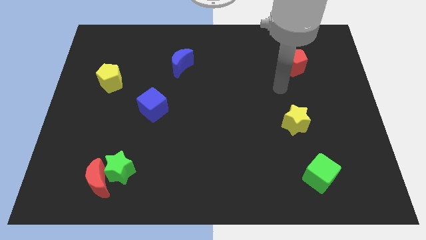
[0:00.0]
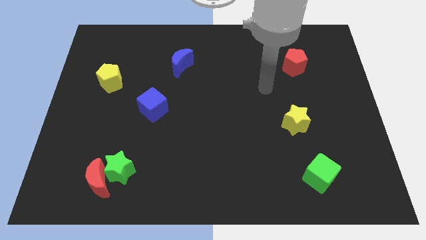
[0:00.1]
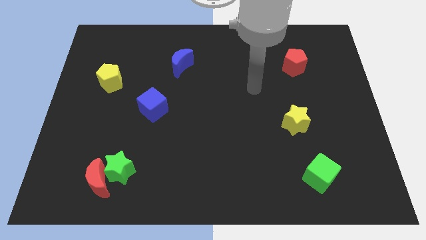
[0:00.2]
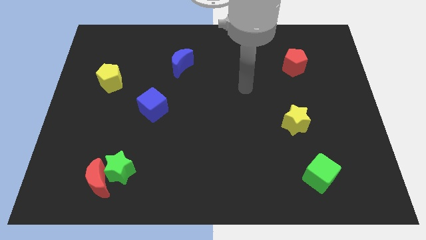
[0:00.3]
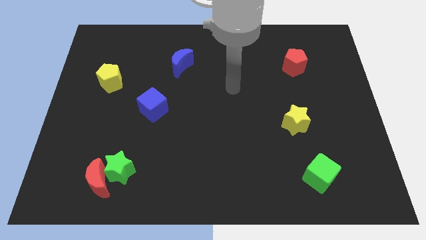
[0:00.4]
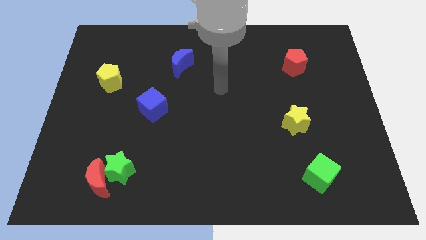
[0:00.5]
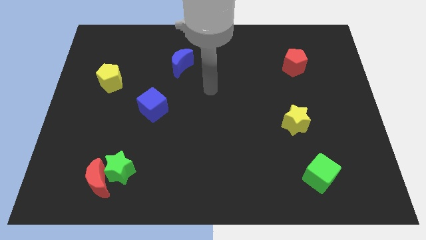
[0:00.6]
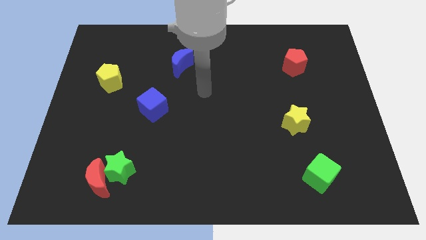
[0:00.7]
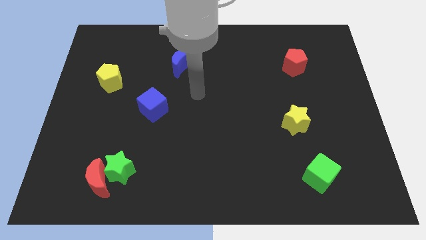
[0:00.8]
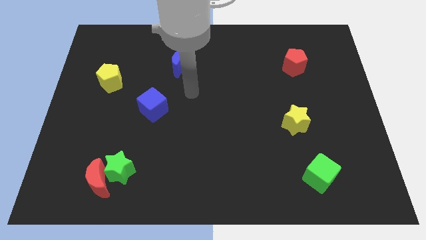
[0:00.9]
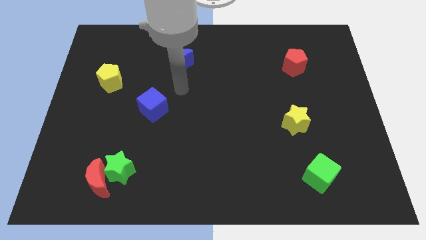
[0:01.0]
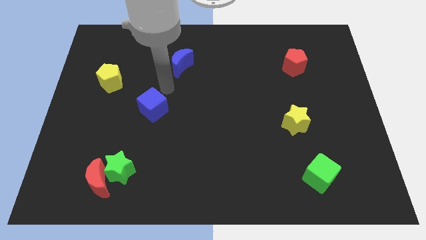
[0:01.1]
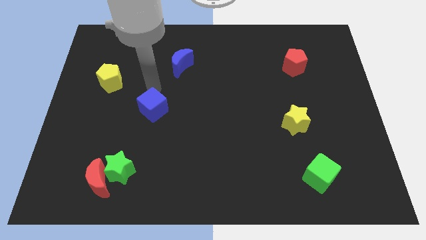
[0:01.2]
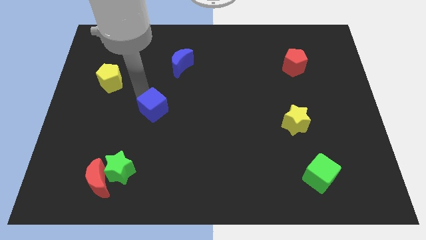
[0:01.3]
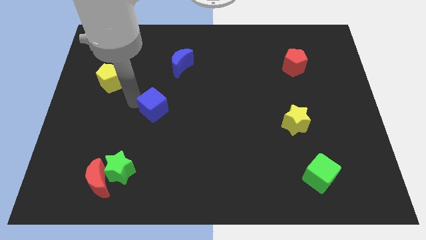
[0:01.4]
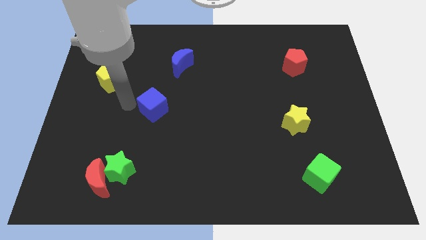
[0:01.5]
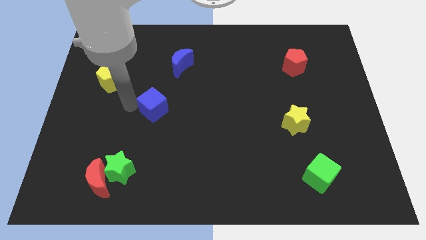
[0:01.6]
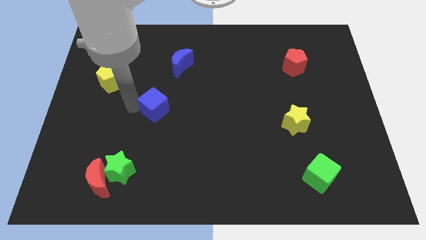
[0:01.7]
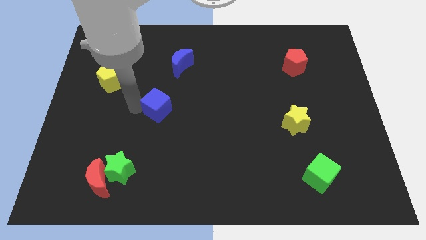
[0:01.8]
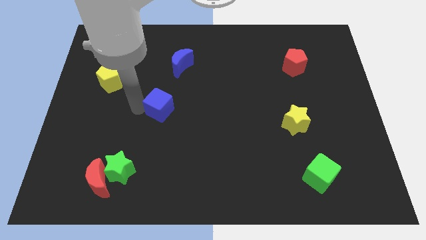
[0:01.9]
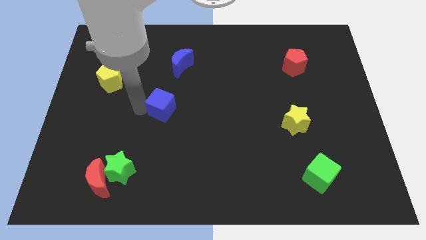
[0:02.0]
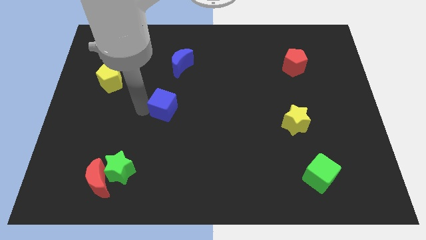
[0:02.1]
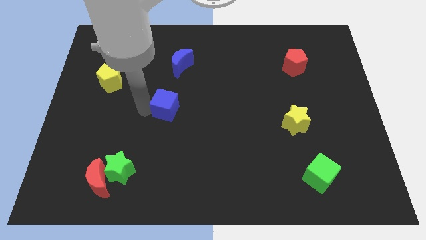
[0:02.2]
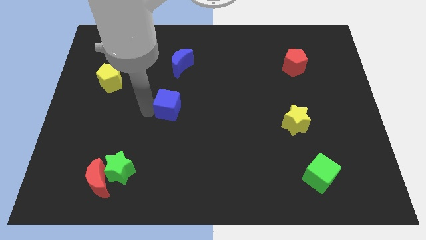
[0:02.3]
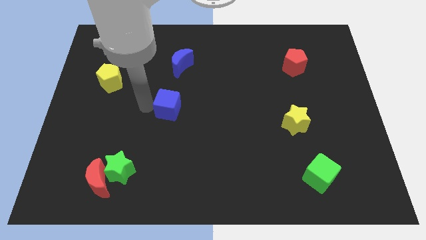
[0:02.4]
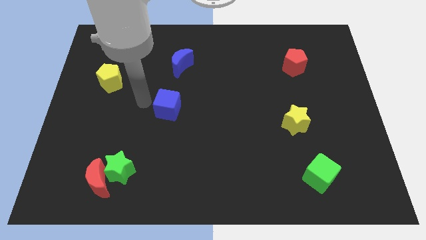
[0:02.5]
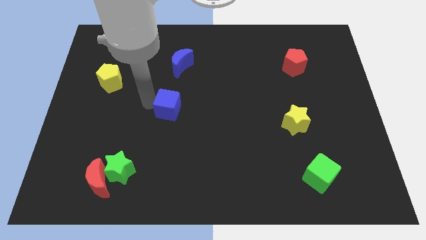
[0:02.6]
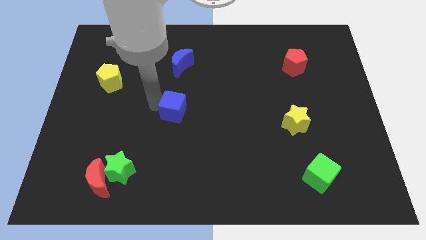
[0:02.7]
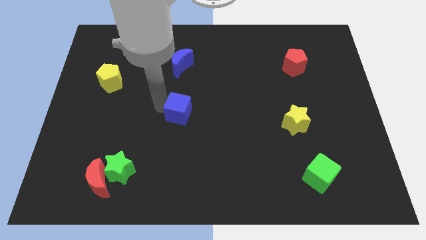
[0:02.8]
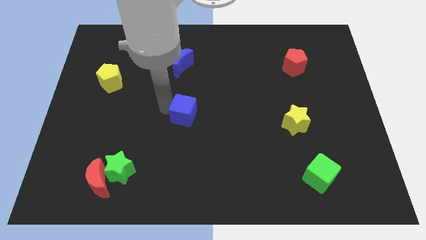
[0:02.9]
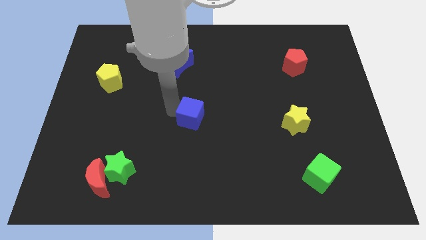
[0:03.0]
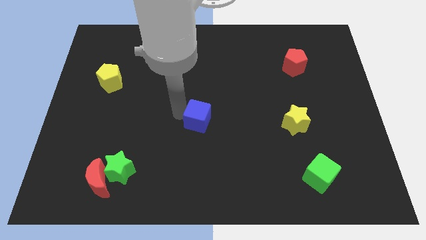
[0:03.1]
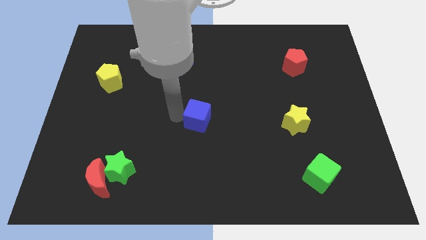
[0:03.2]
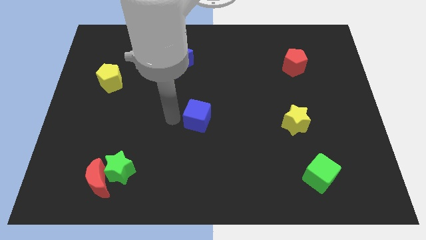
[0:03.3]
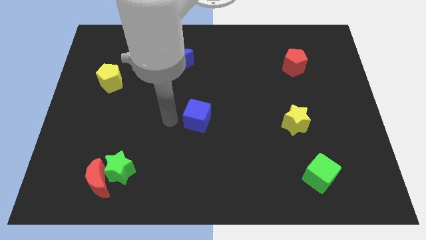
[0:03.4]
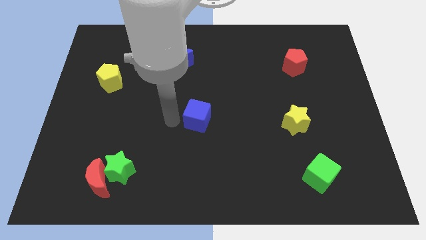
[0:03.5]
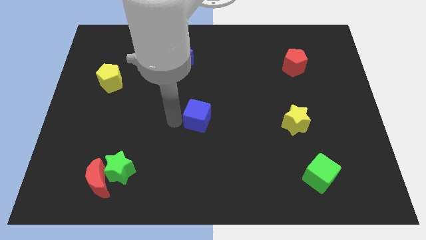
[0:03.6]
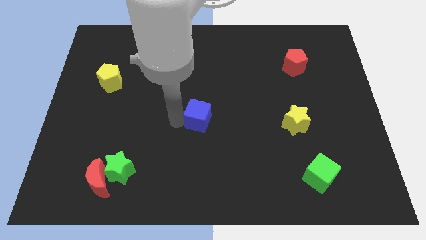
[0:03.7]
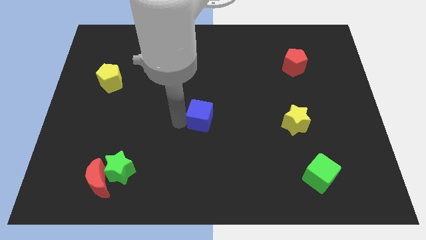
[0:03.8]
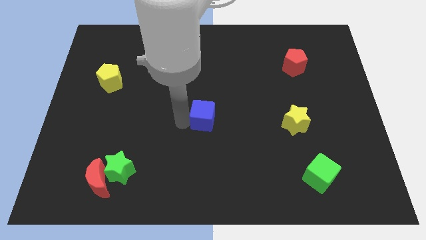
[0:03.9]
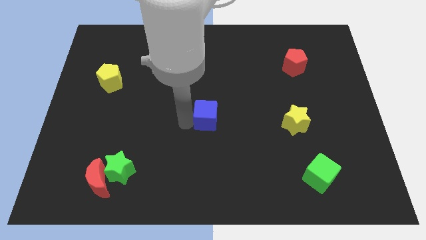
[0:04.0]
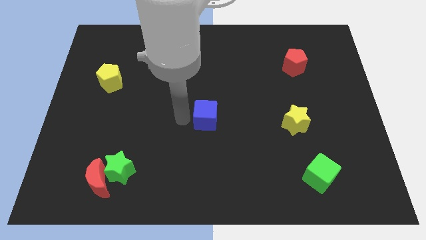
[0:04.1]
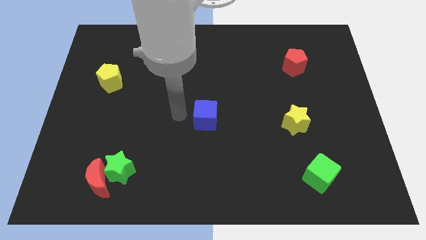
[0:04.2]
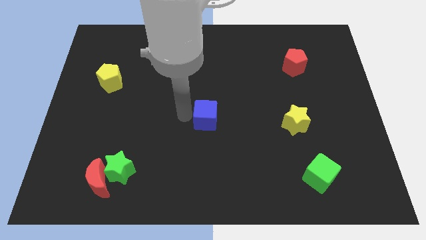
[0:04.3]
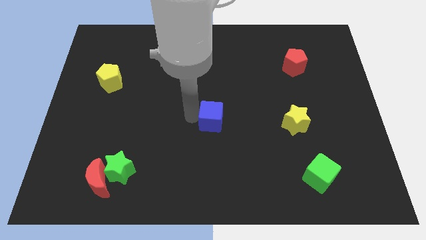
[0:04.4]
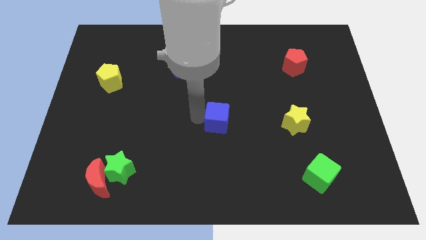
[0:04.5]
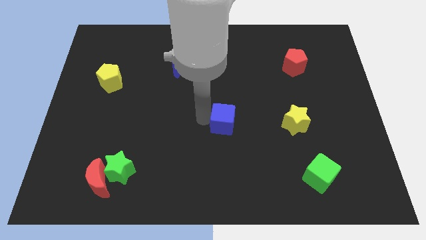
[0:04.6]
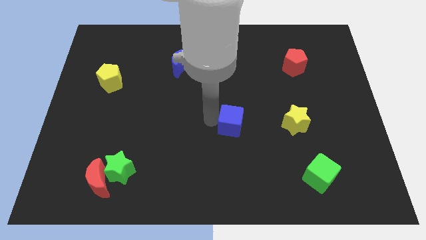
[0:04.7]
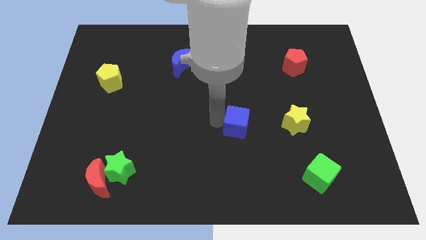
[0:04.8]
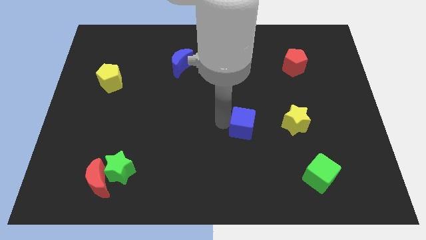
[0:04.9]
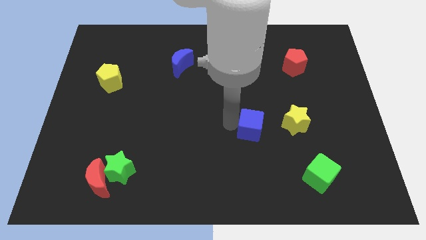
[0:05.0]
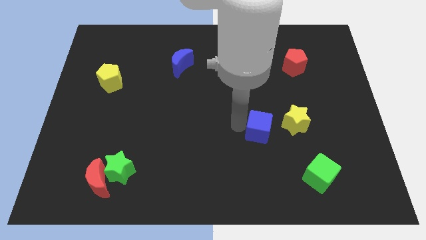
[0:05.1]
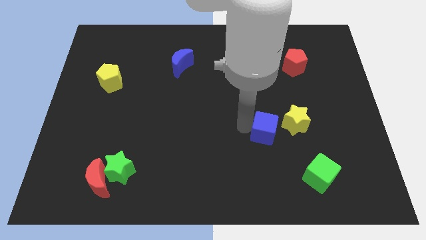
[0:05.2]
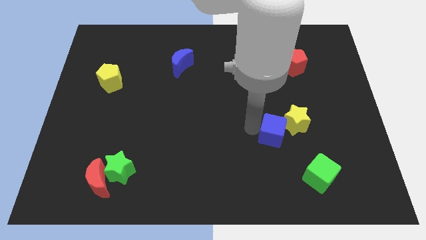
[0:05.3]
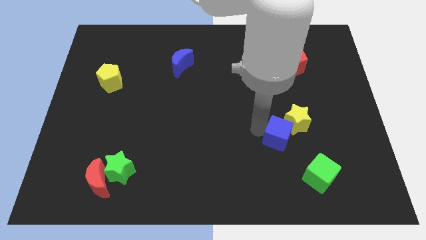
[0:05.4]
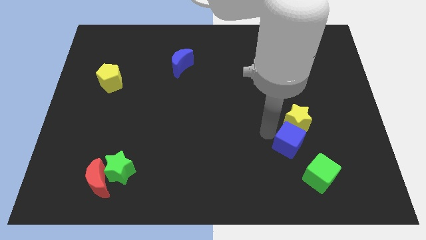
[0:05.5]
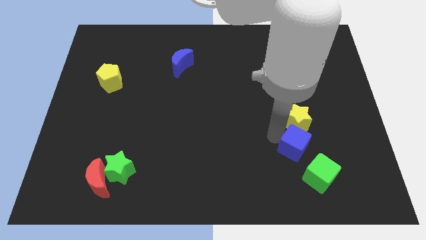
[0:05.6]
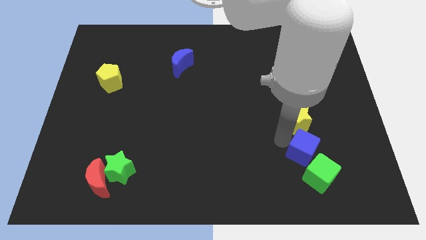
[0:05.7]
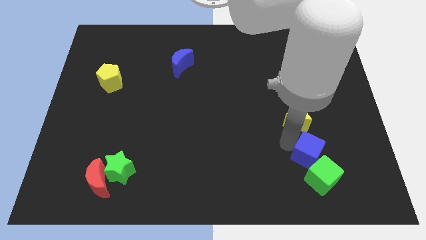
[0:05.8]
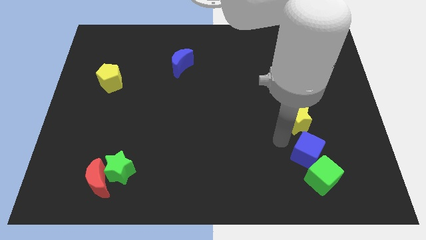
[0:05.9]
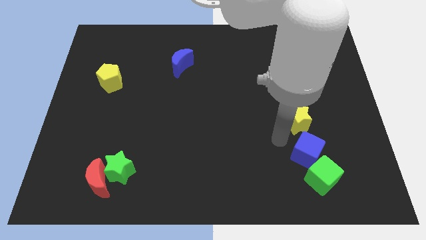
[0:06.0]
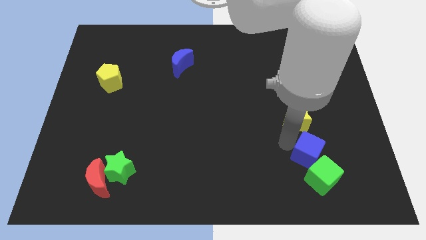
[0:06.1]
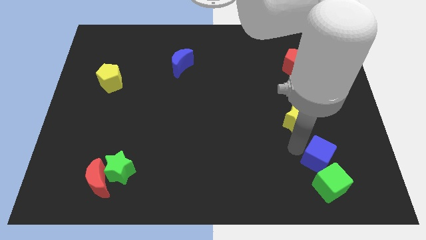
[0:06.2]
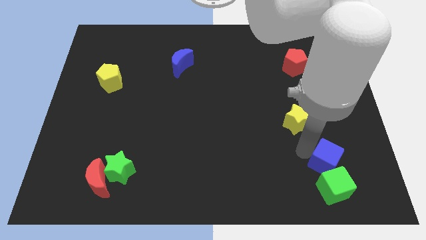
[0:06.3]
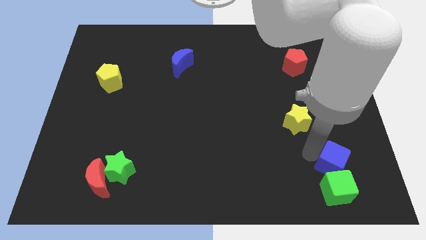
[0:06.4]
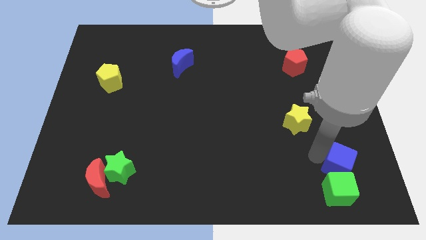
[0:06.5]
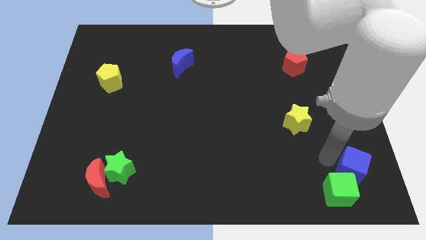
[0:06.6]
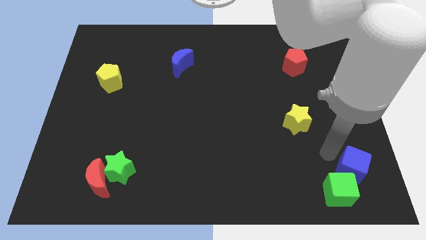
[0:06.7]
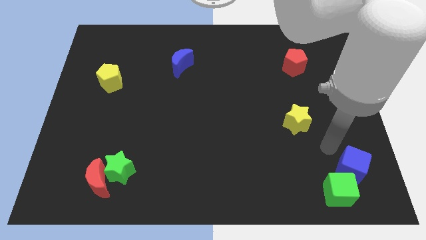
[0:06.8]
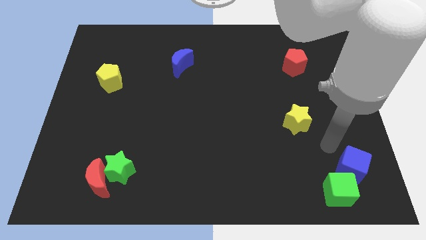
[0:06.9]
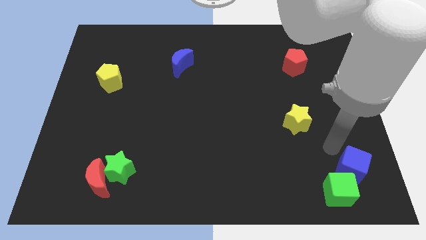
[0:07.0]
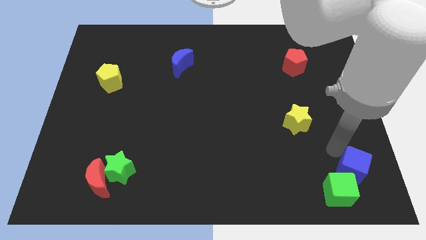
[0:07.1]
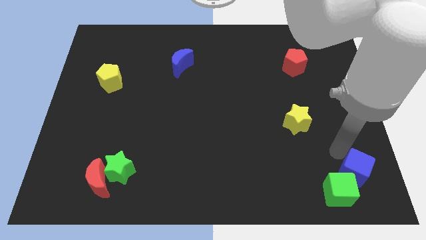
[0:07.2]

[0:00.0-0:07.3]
move the blue cube to the lower right corner
